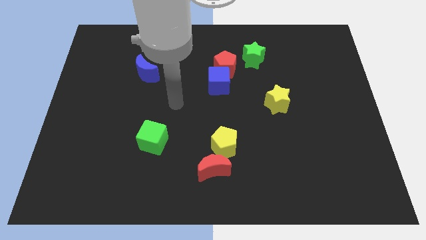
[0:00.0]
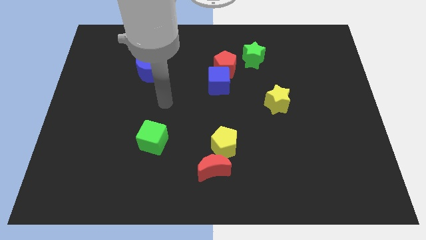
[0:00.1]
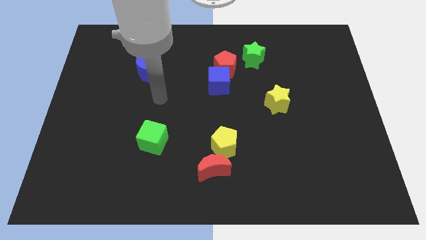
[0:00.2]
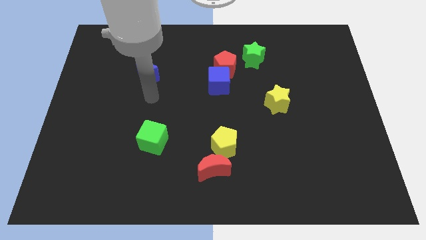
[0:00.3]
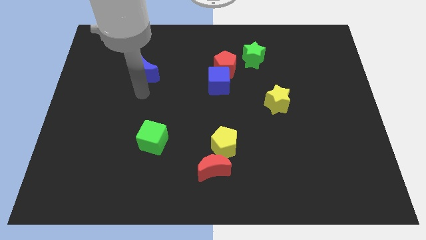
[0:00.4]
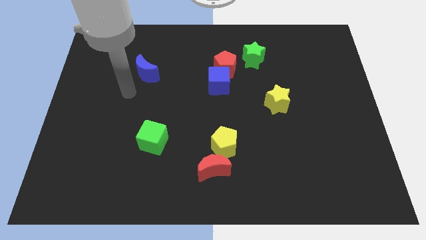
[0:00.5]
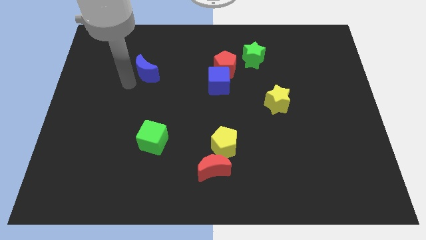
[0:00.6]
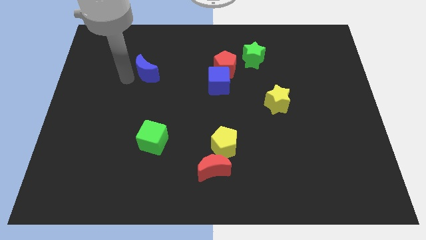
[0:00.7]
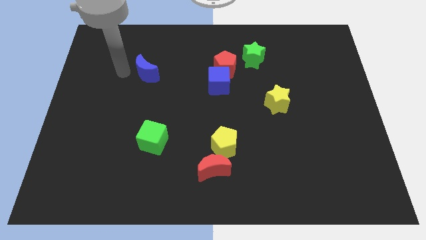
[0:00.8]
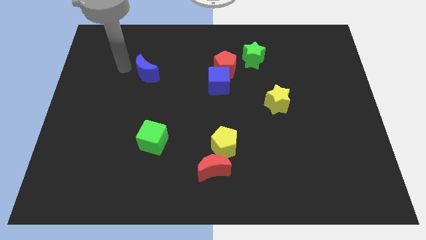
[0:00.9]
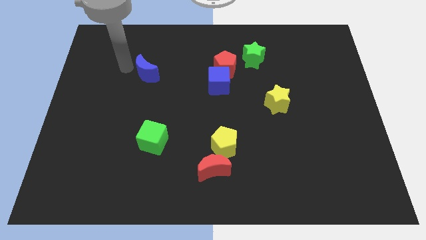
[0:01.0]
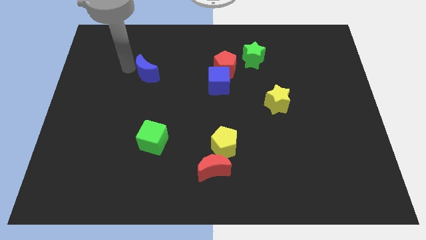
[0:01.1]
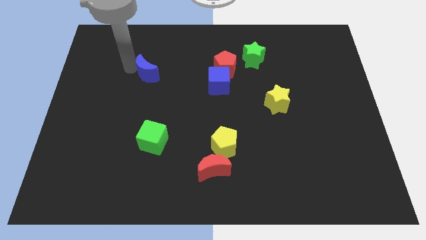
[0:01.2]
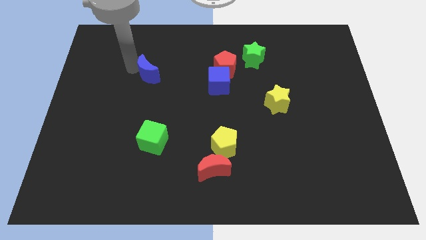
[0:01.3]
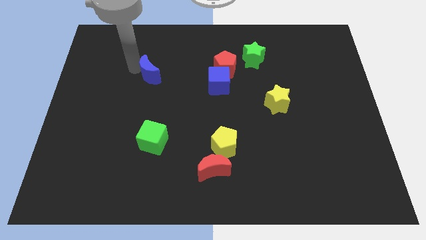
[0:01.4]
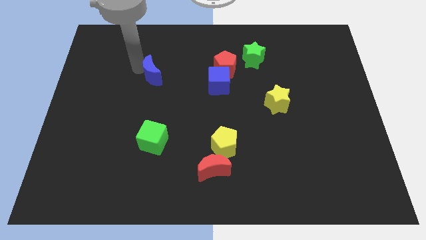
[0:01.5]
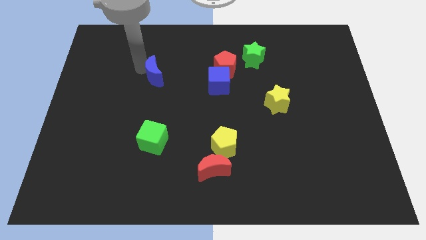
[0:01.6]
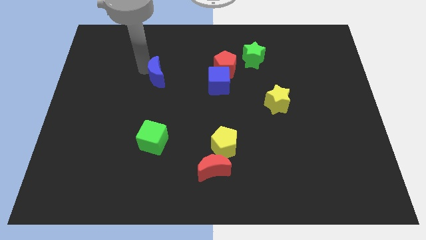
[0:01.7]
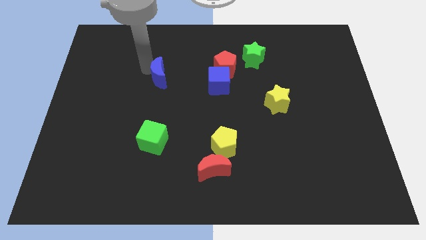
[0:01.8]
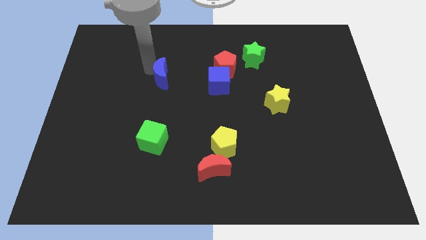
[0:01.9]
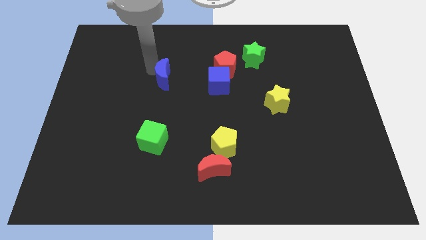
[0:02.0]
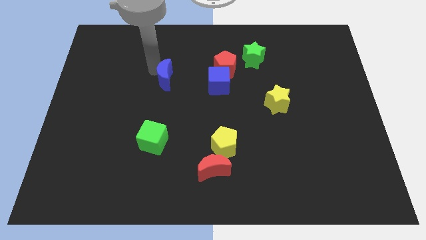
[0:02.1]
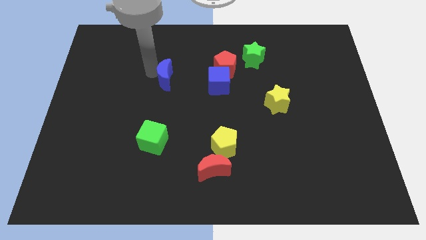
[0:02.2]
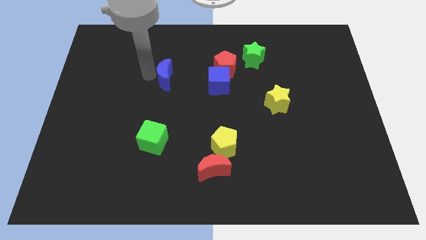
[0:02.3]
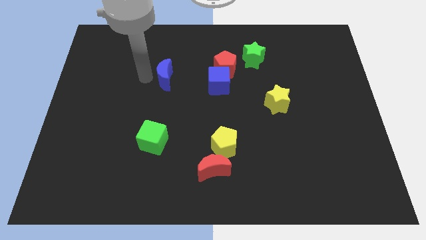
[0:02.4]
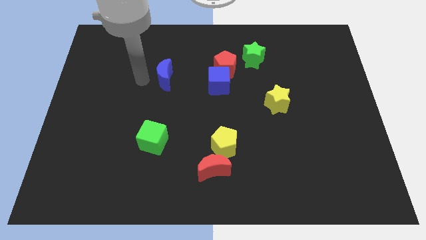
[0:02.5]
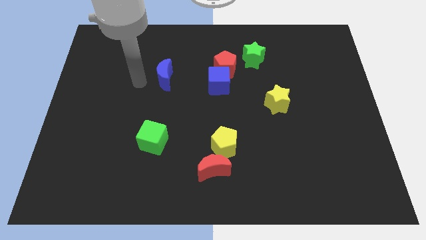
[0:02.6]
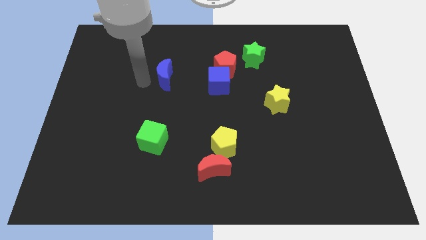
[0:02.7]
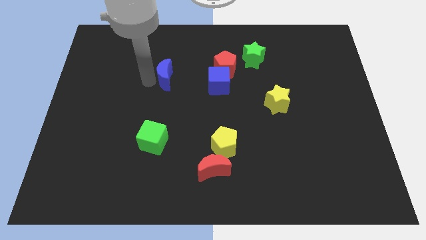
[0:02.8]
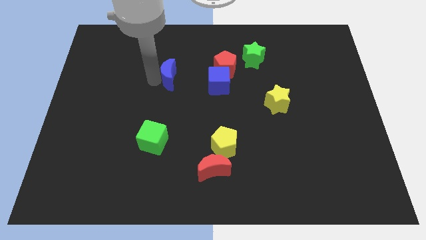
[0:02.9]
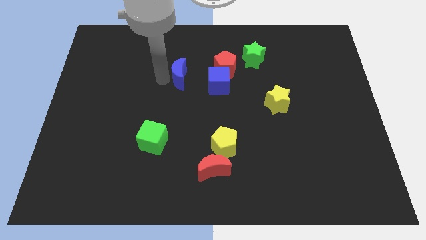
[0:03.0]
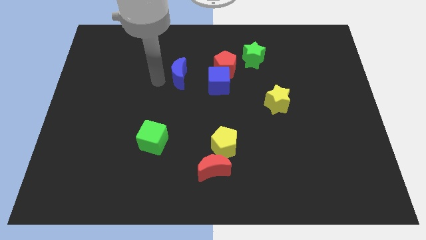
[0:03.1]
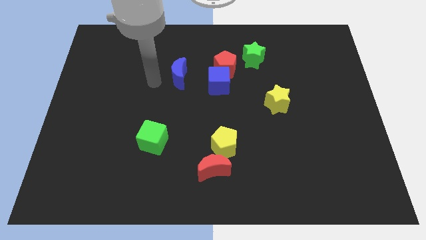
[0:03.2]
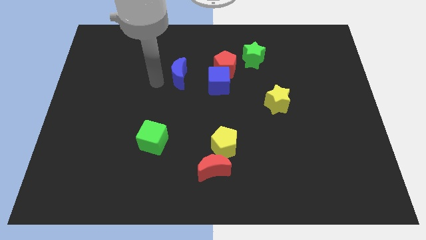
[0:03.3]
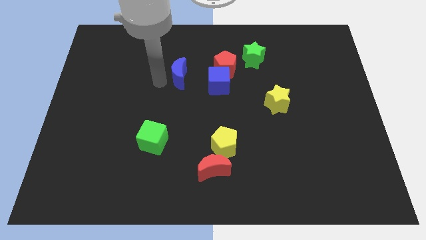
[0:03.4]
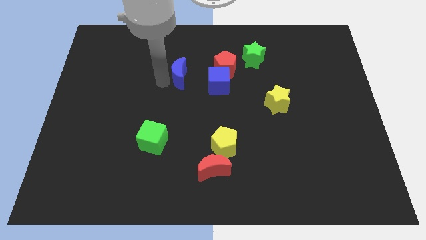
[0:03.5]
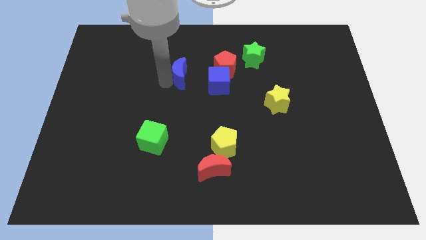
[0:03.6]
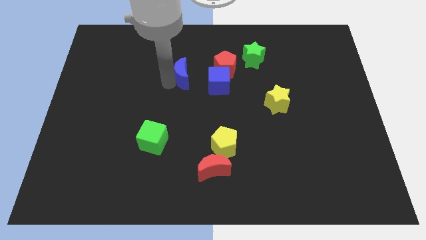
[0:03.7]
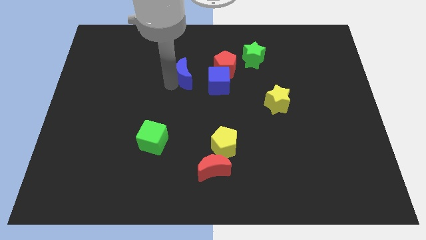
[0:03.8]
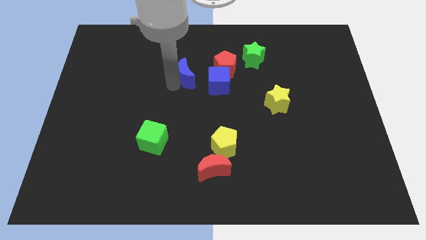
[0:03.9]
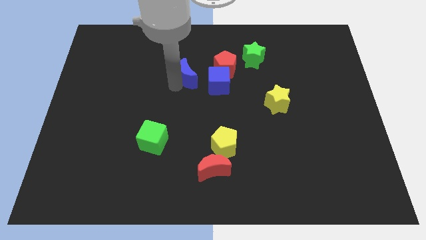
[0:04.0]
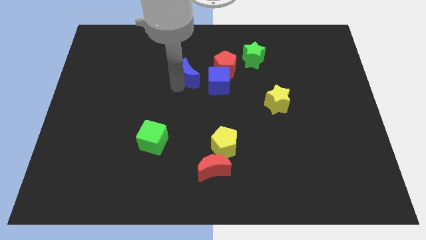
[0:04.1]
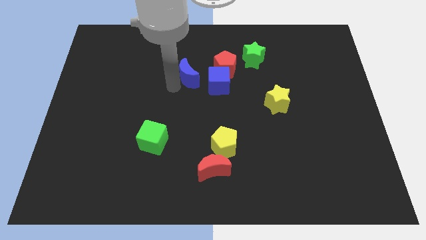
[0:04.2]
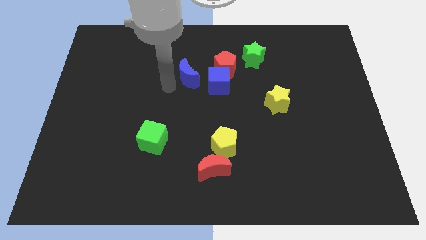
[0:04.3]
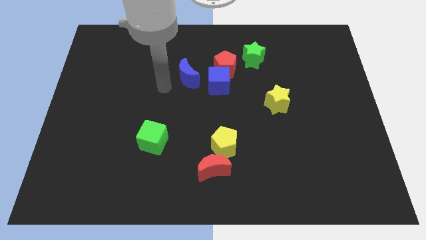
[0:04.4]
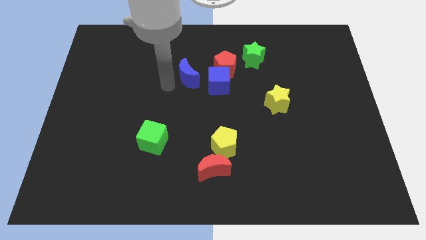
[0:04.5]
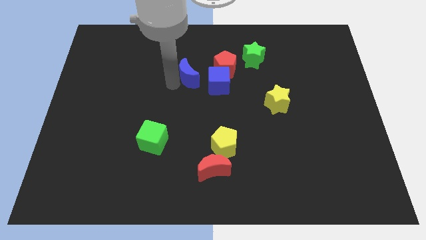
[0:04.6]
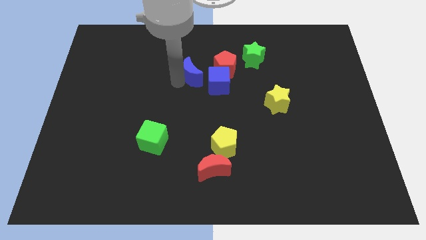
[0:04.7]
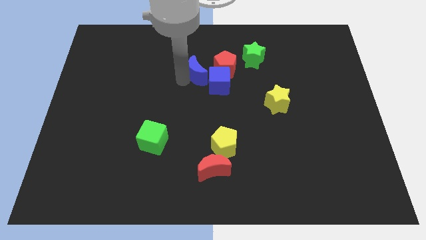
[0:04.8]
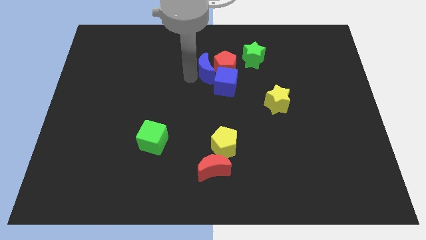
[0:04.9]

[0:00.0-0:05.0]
slide the blue moon next to the red pentagon

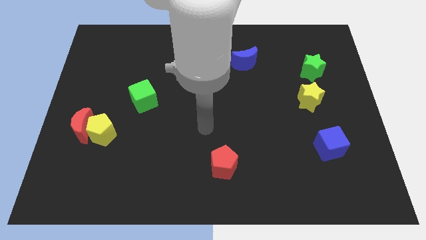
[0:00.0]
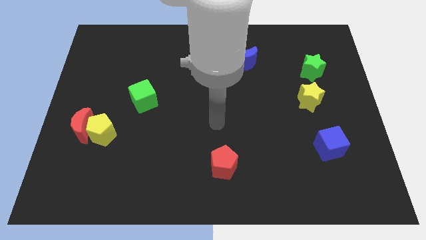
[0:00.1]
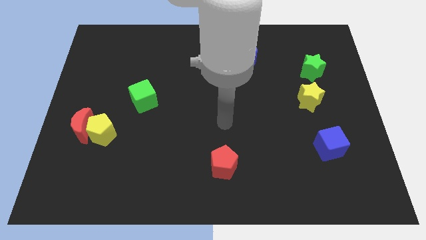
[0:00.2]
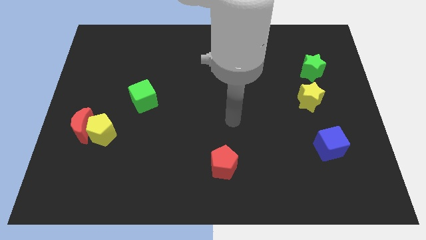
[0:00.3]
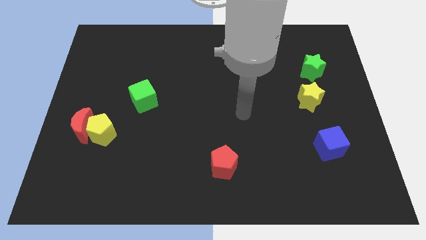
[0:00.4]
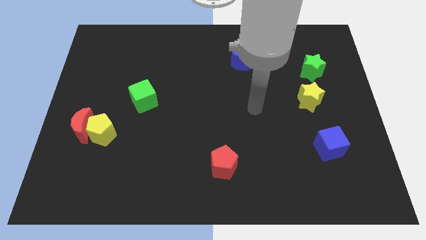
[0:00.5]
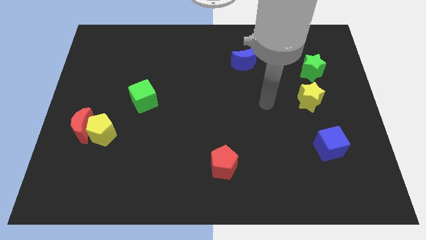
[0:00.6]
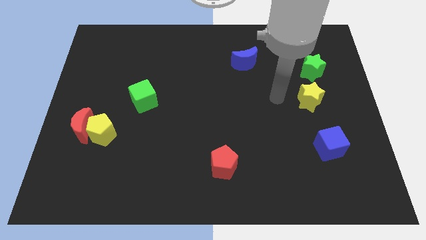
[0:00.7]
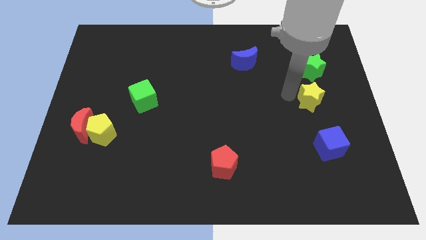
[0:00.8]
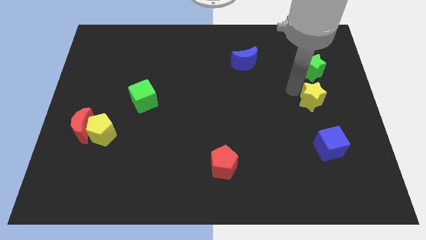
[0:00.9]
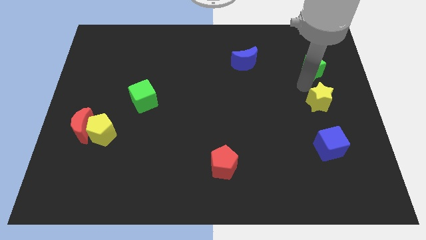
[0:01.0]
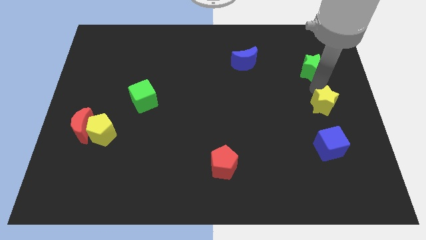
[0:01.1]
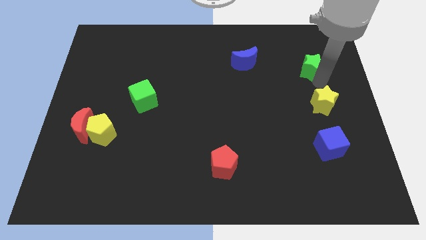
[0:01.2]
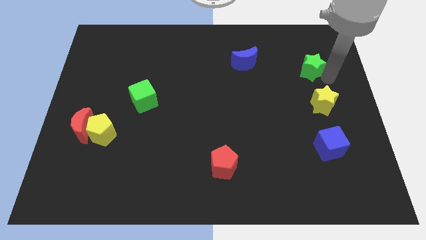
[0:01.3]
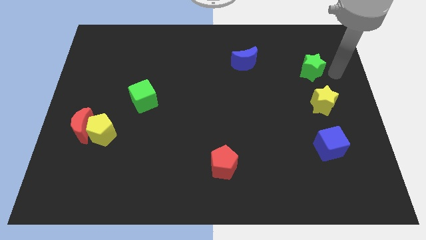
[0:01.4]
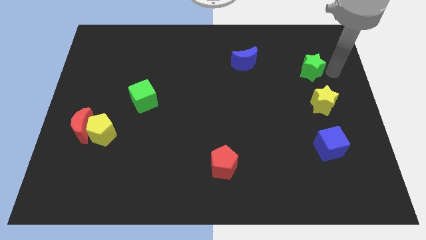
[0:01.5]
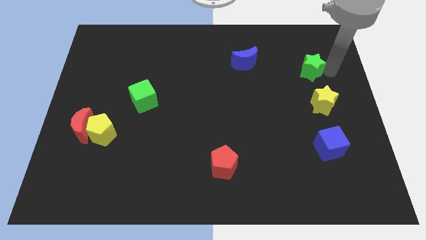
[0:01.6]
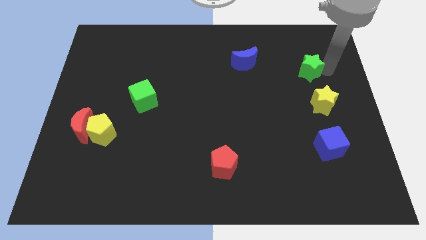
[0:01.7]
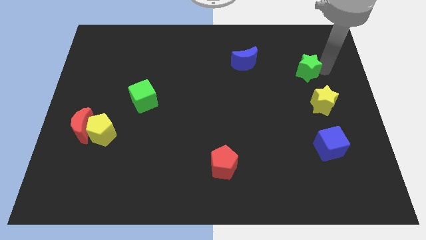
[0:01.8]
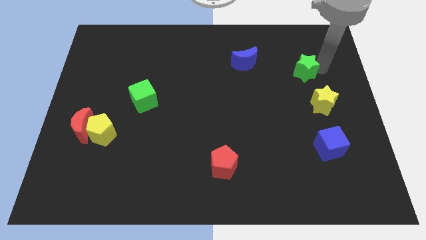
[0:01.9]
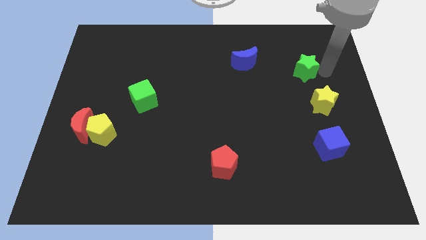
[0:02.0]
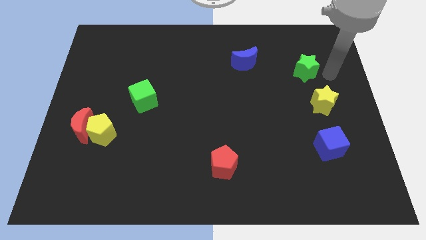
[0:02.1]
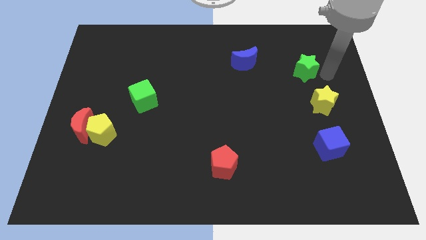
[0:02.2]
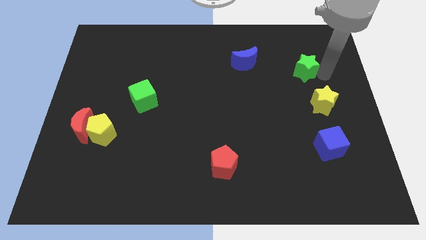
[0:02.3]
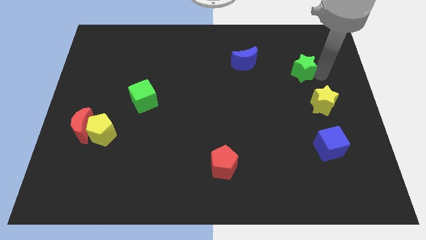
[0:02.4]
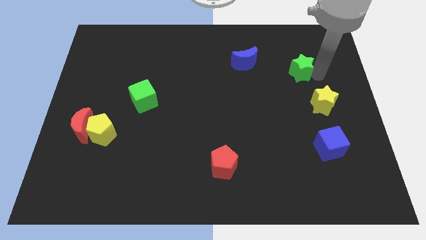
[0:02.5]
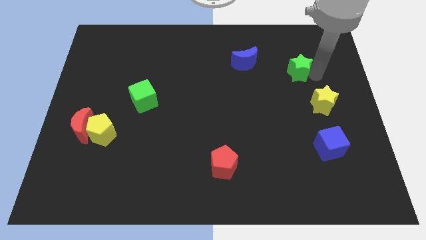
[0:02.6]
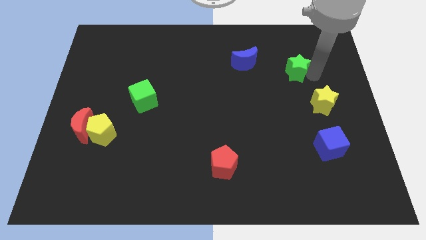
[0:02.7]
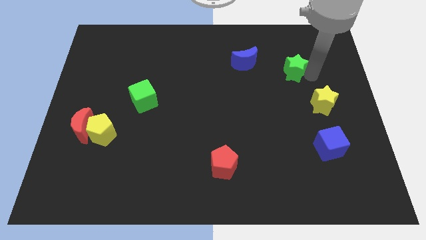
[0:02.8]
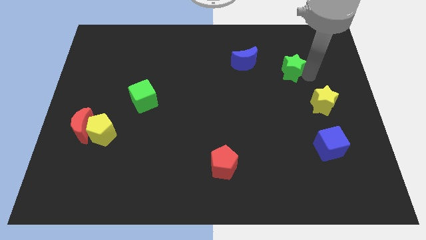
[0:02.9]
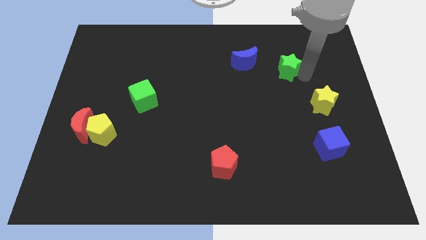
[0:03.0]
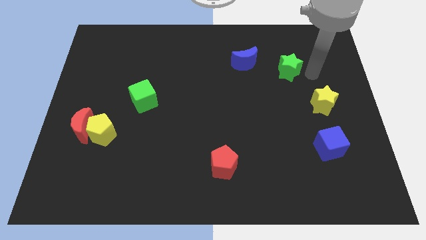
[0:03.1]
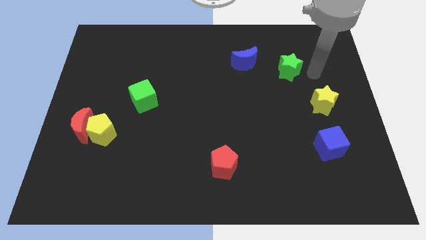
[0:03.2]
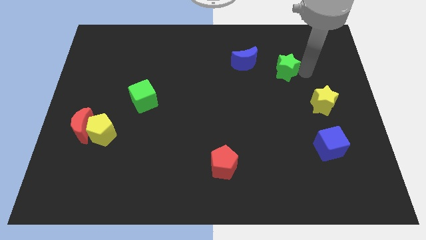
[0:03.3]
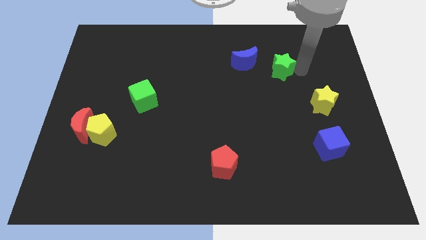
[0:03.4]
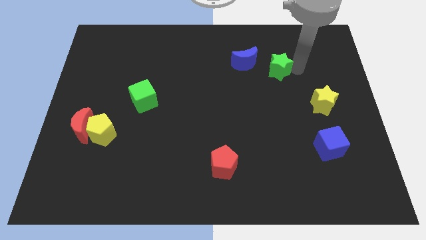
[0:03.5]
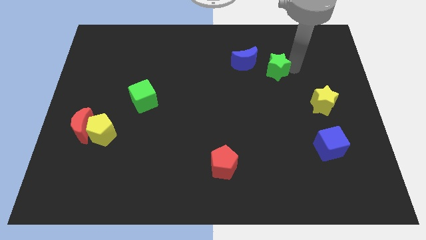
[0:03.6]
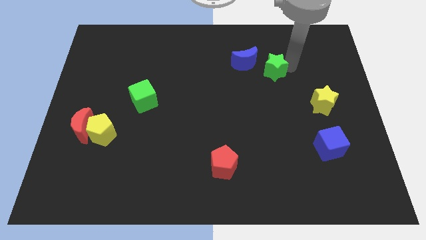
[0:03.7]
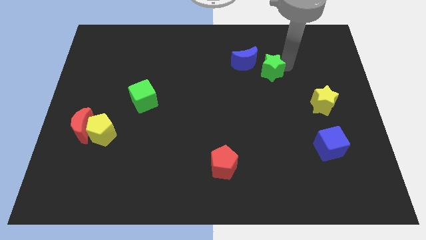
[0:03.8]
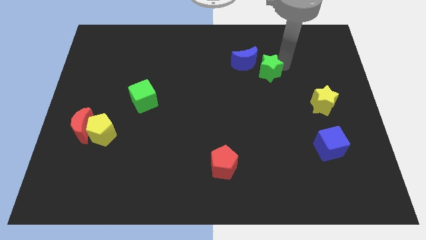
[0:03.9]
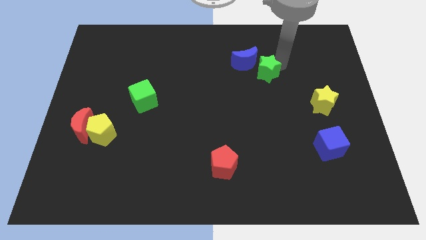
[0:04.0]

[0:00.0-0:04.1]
slide the green star to the blue moon
